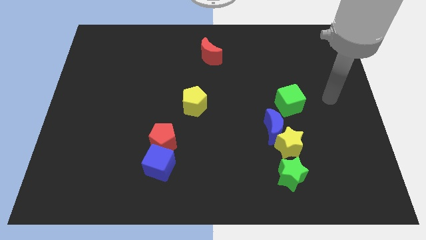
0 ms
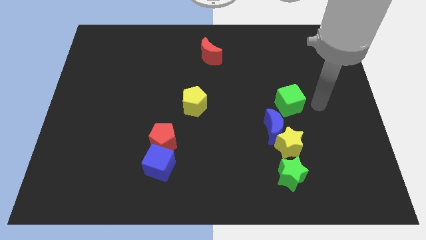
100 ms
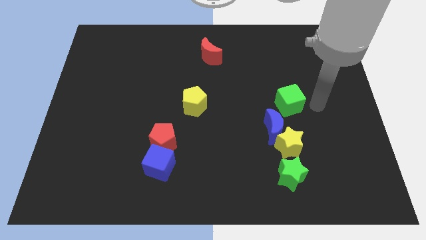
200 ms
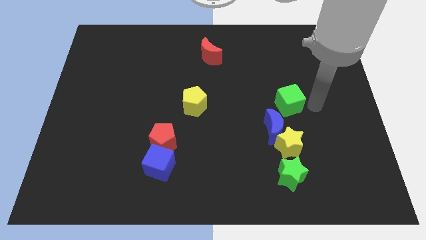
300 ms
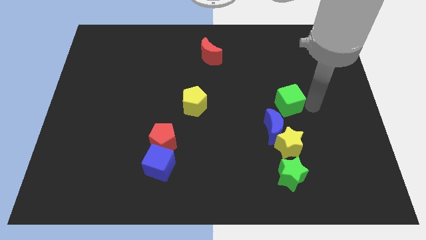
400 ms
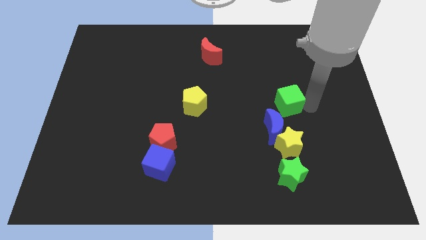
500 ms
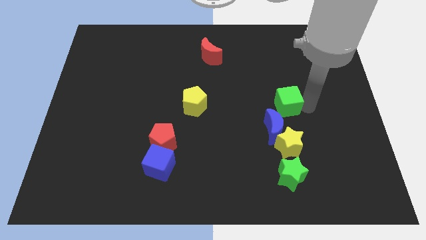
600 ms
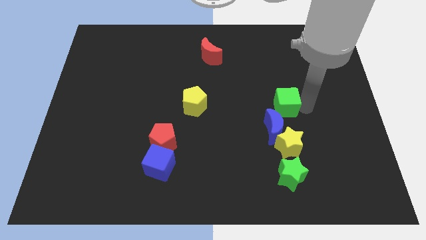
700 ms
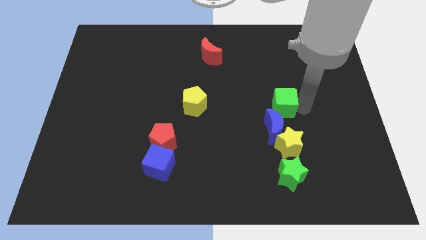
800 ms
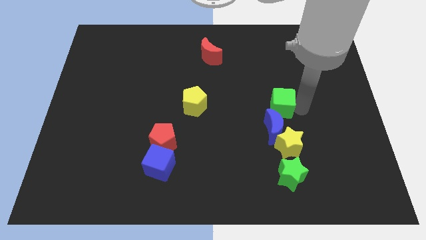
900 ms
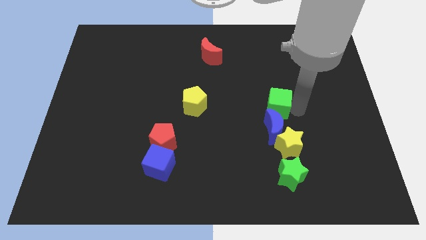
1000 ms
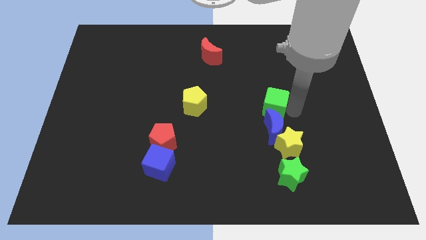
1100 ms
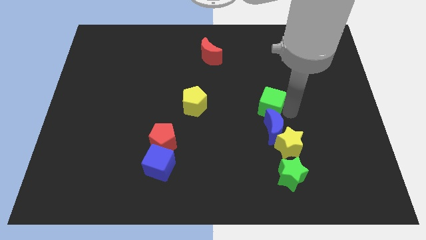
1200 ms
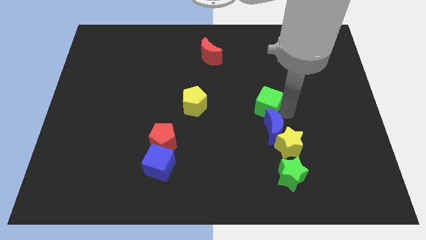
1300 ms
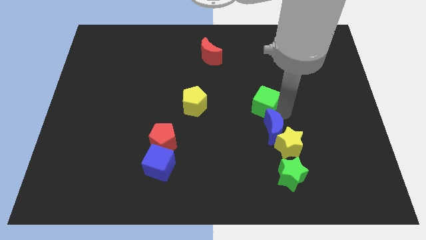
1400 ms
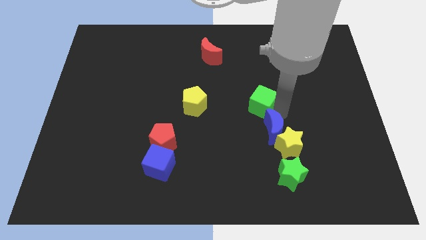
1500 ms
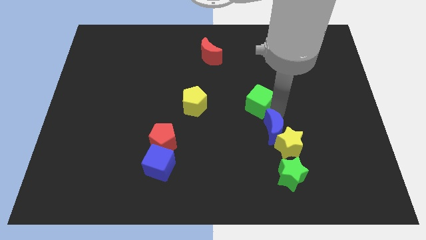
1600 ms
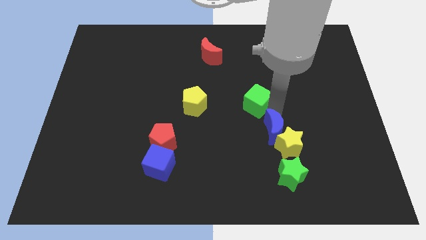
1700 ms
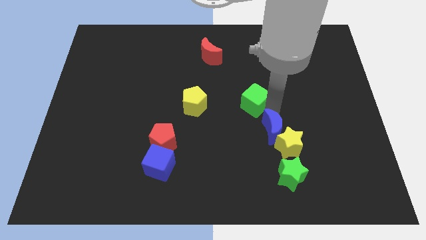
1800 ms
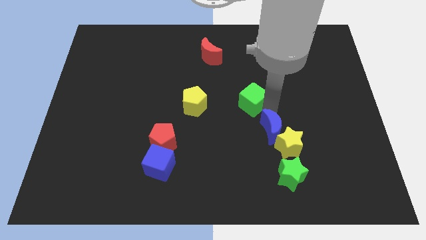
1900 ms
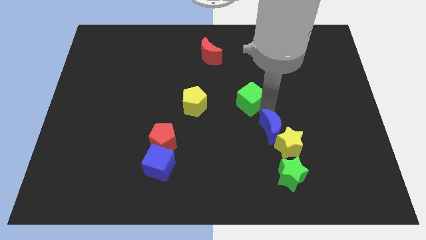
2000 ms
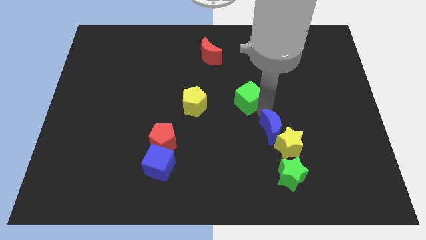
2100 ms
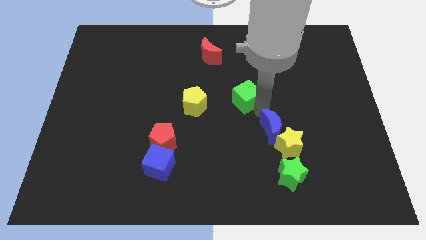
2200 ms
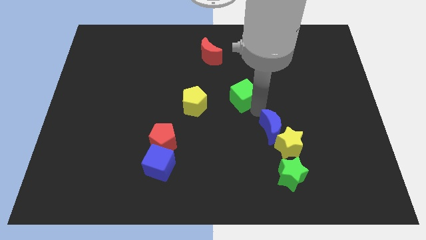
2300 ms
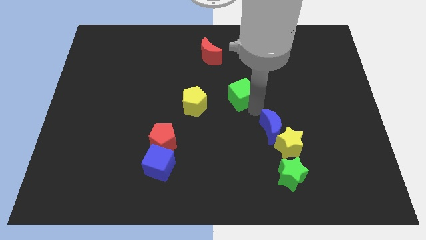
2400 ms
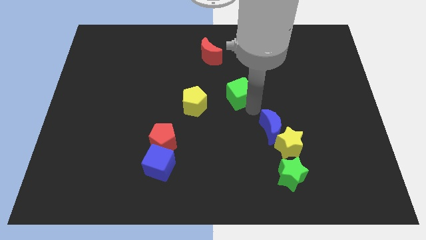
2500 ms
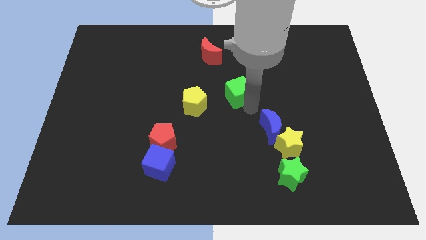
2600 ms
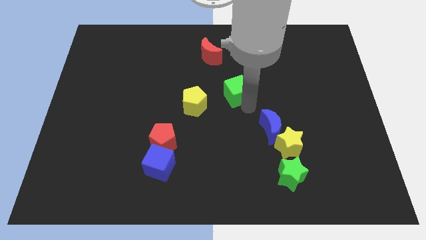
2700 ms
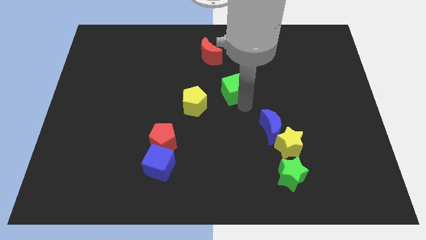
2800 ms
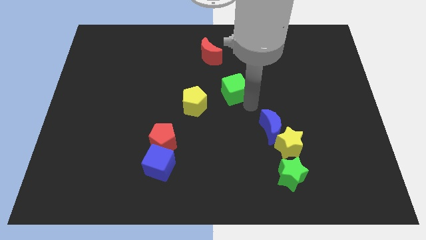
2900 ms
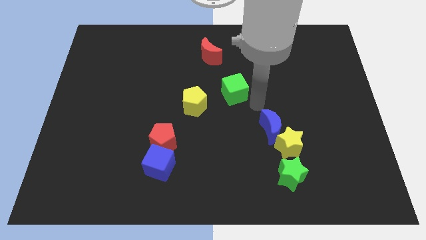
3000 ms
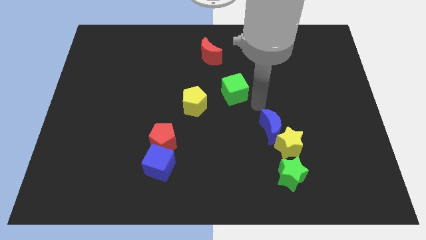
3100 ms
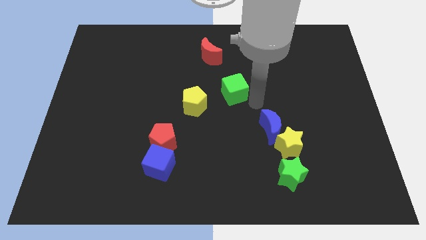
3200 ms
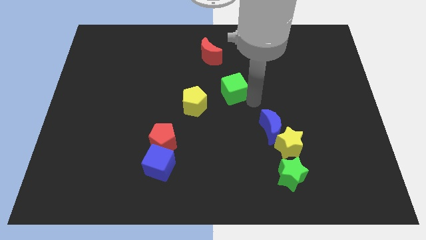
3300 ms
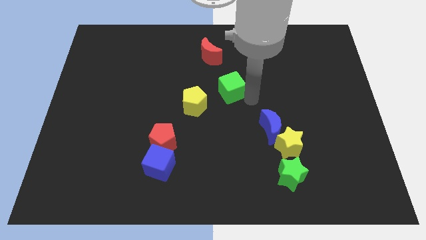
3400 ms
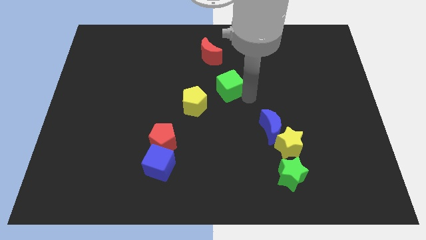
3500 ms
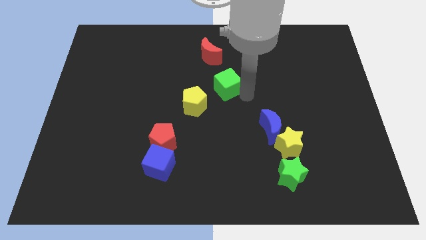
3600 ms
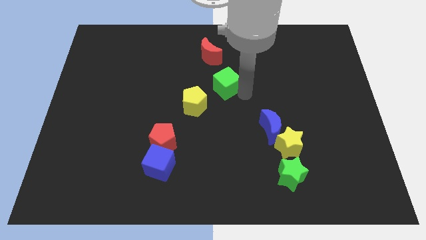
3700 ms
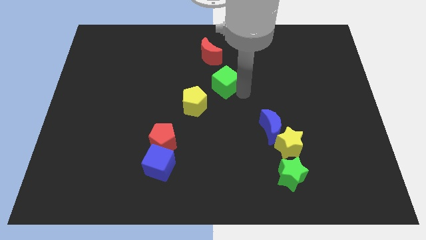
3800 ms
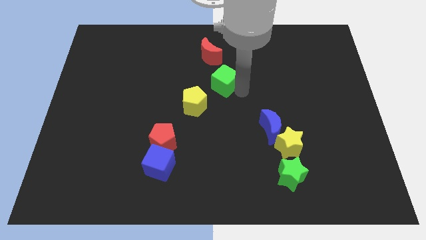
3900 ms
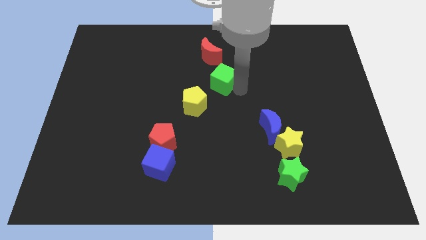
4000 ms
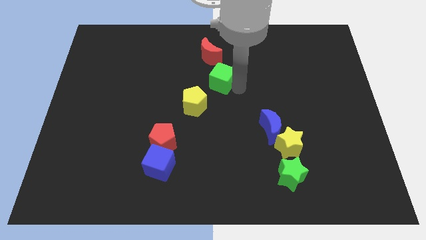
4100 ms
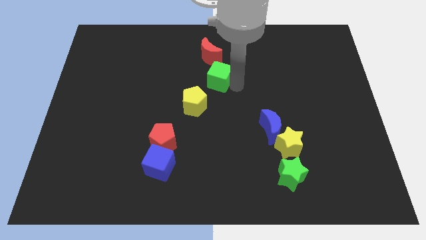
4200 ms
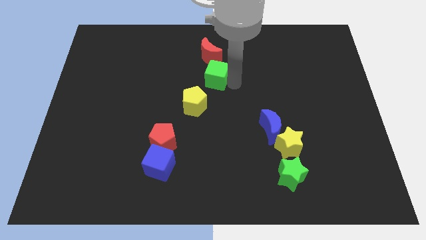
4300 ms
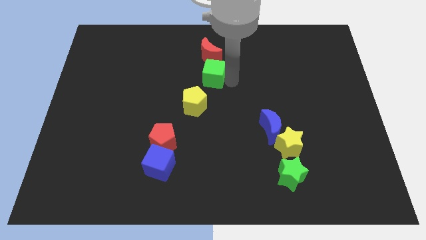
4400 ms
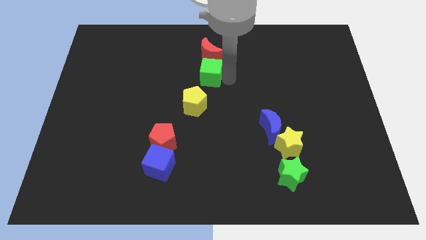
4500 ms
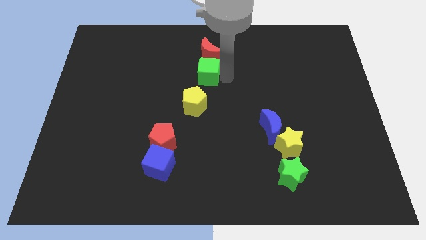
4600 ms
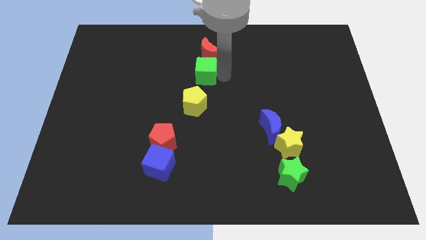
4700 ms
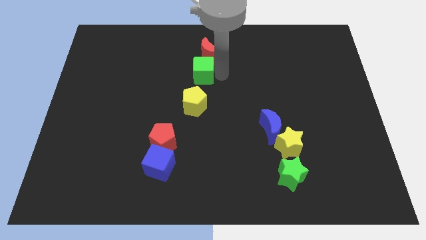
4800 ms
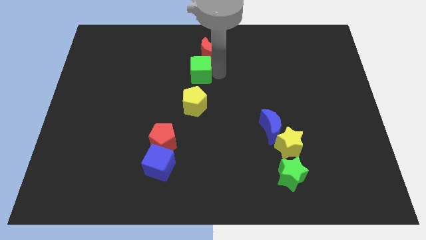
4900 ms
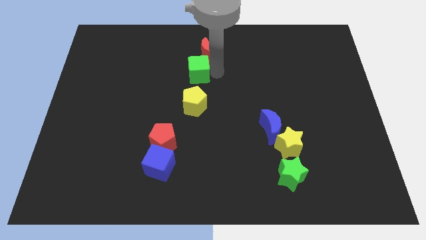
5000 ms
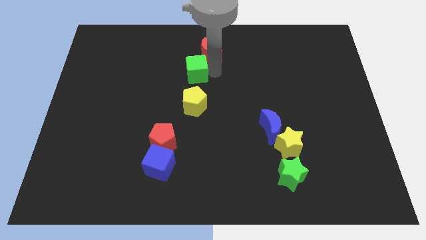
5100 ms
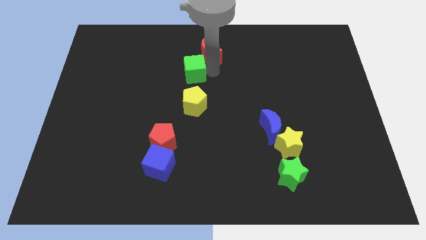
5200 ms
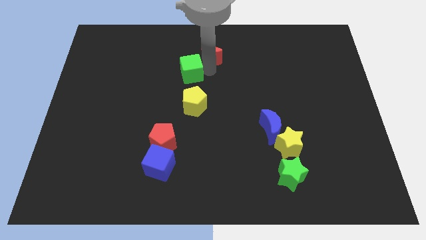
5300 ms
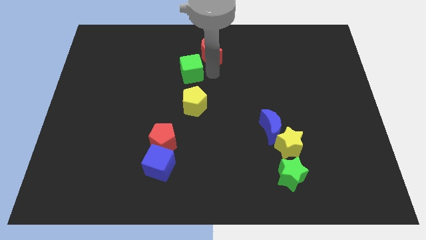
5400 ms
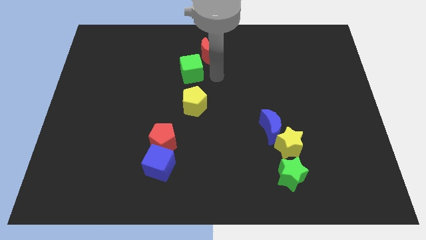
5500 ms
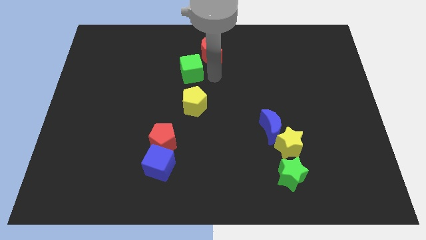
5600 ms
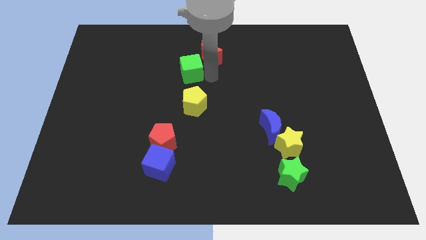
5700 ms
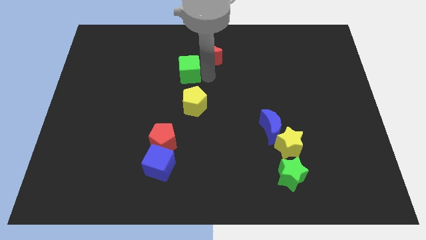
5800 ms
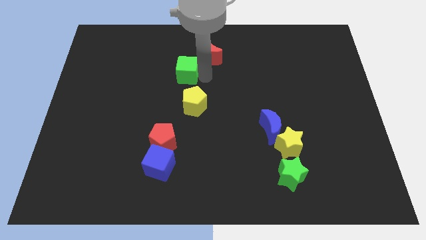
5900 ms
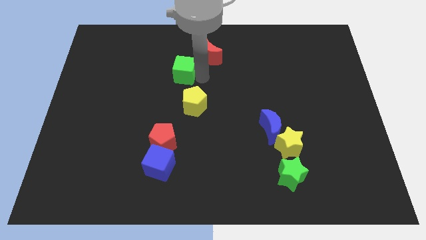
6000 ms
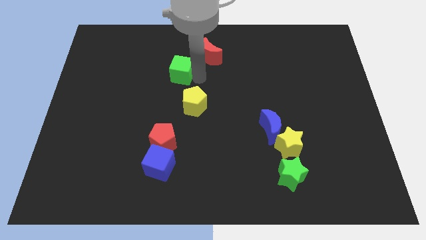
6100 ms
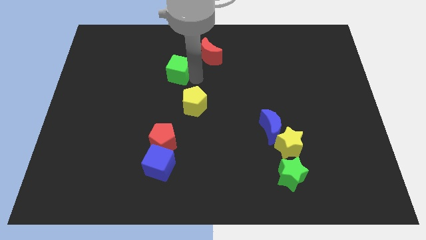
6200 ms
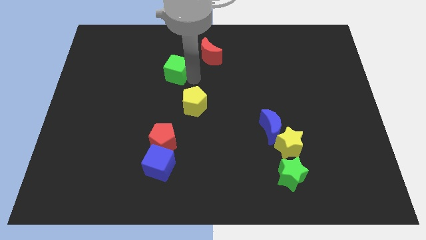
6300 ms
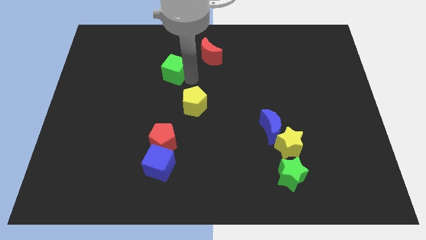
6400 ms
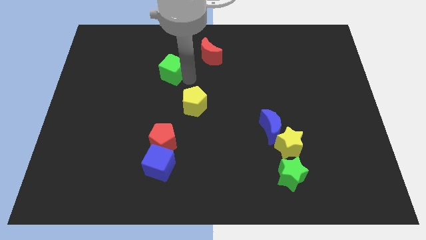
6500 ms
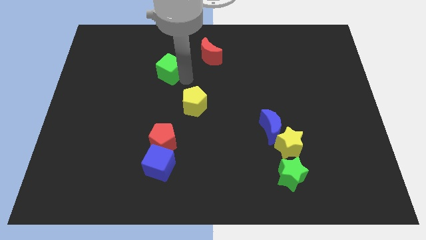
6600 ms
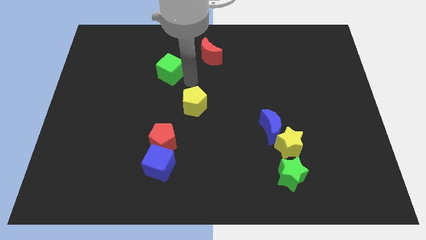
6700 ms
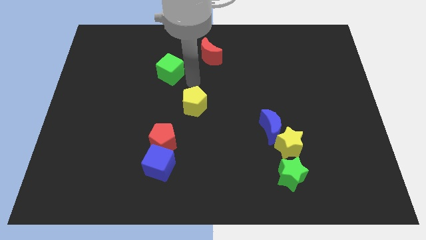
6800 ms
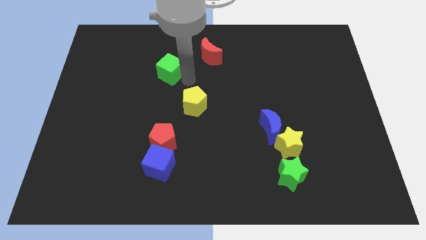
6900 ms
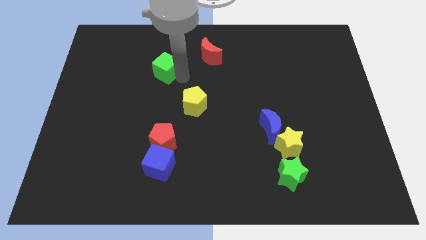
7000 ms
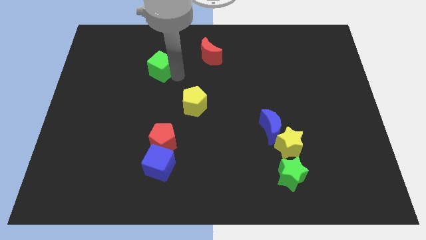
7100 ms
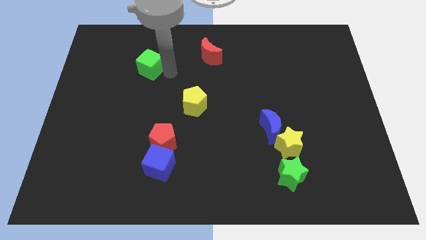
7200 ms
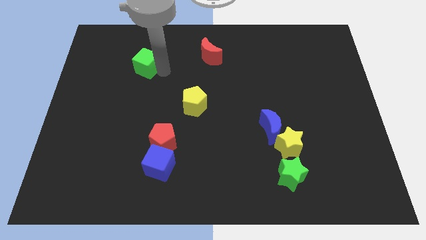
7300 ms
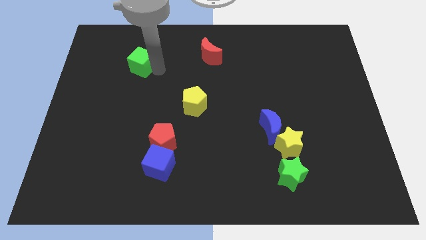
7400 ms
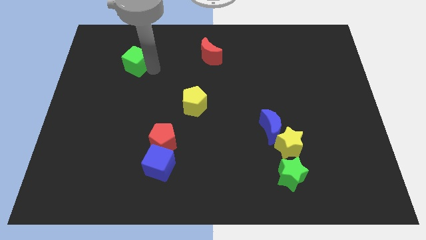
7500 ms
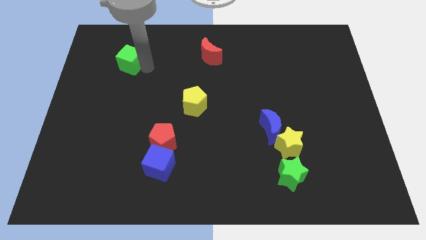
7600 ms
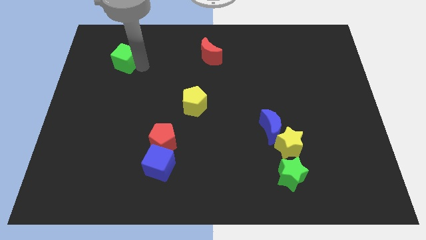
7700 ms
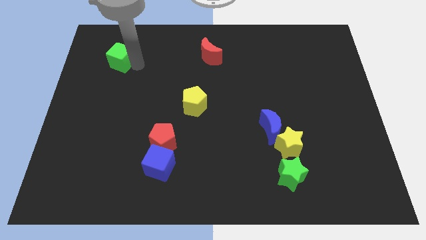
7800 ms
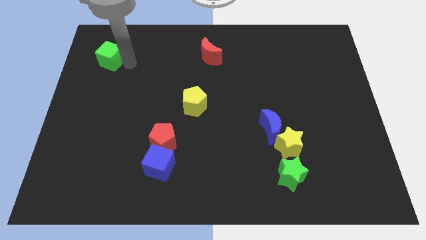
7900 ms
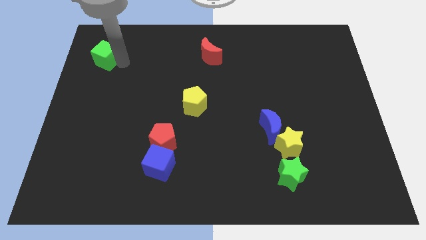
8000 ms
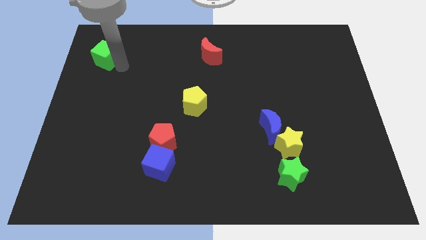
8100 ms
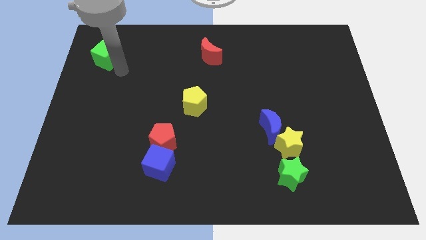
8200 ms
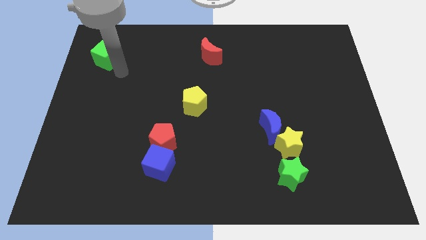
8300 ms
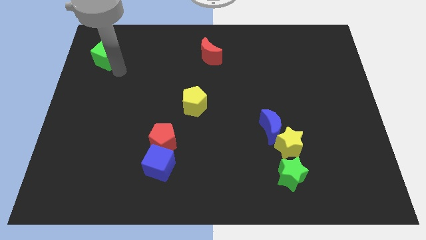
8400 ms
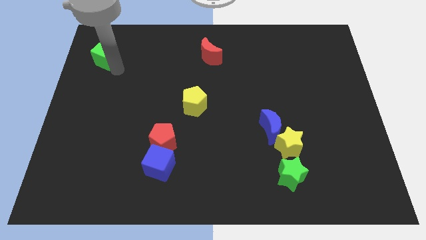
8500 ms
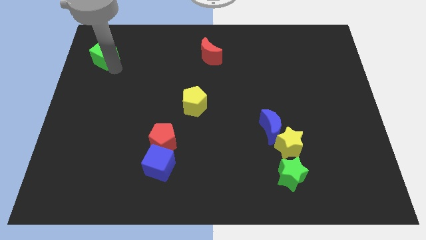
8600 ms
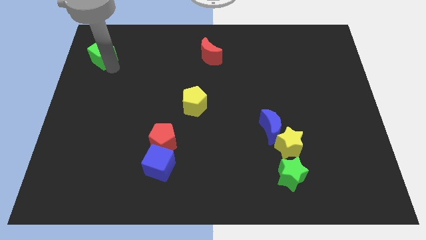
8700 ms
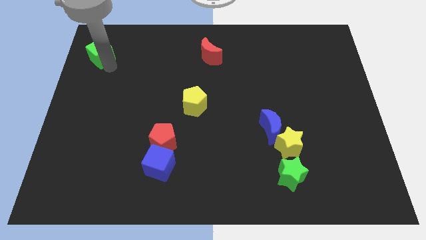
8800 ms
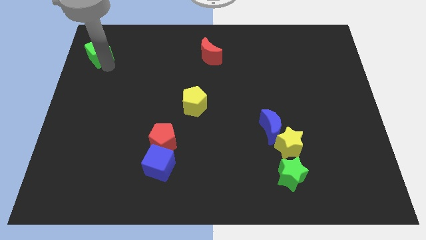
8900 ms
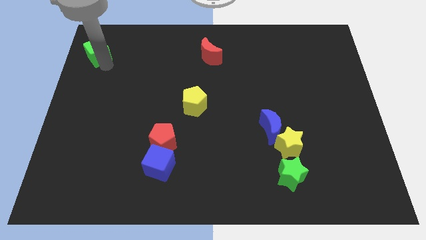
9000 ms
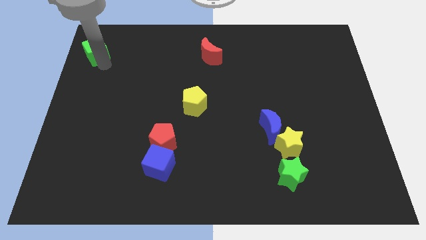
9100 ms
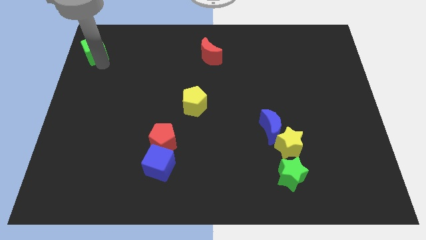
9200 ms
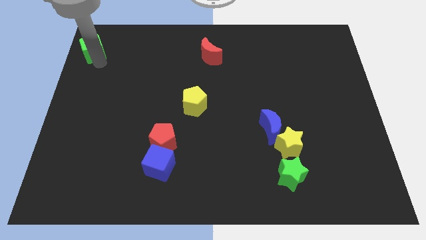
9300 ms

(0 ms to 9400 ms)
put the green cube to the top left
